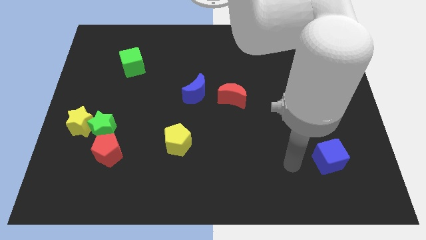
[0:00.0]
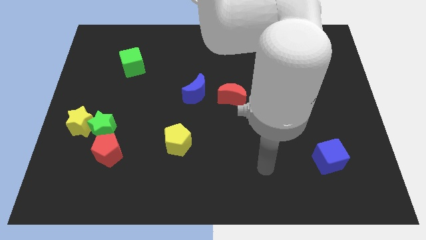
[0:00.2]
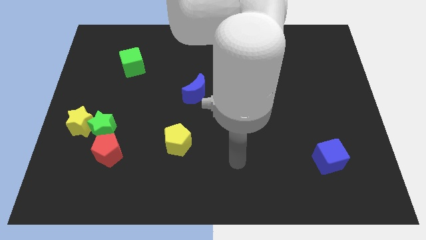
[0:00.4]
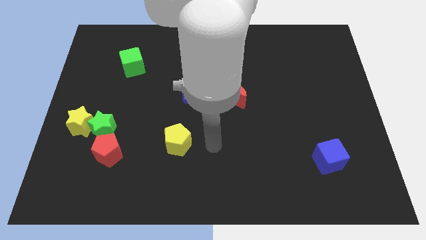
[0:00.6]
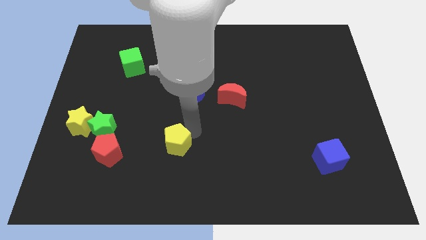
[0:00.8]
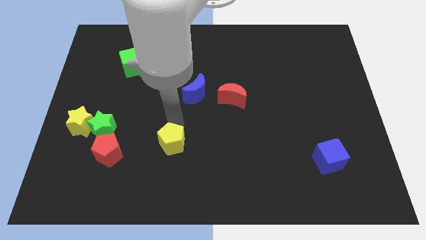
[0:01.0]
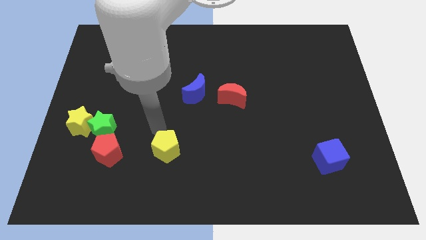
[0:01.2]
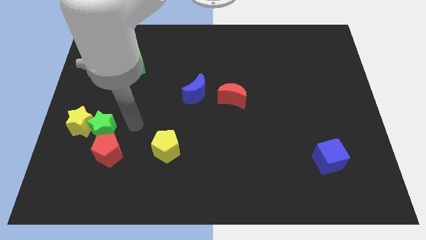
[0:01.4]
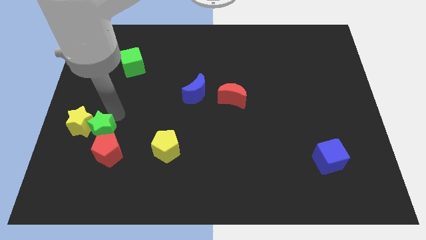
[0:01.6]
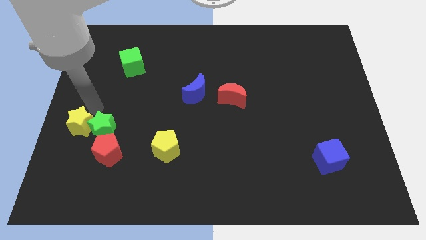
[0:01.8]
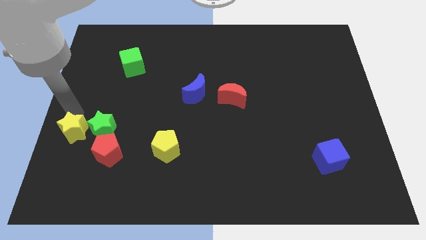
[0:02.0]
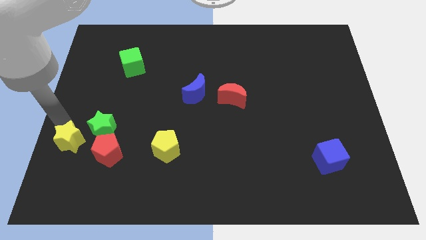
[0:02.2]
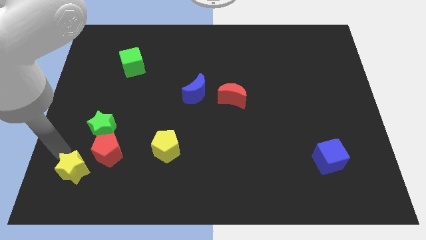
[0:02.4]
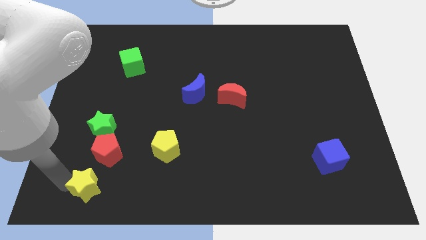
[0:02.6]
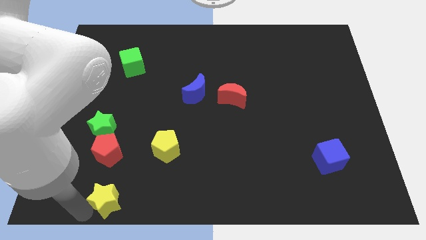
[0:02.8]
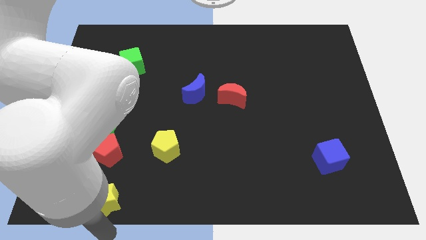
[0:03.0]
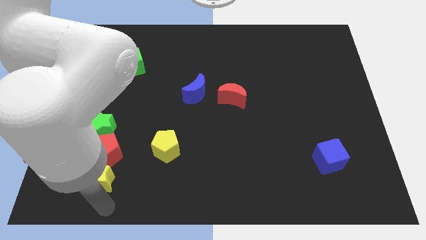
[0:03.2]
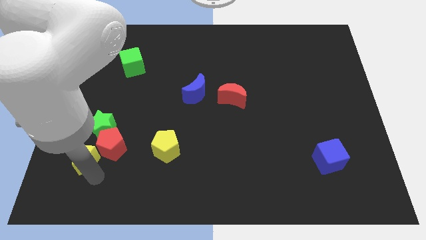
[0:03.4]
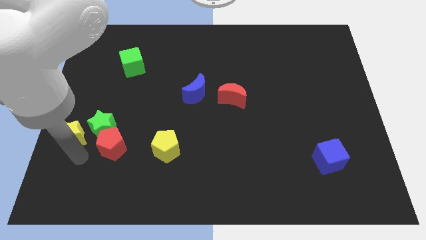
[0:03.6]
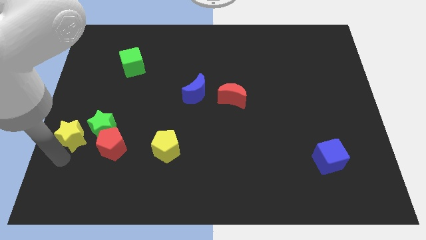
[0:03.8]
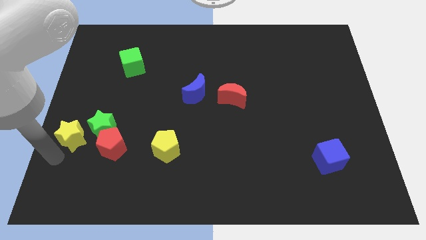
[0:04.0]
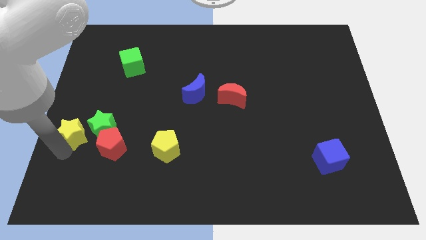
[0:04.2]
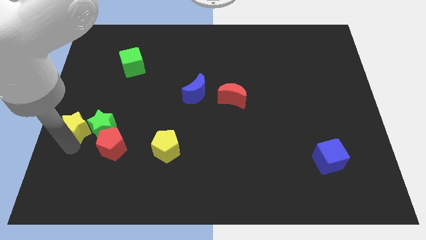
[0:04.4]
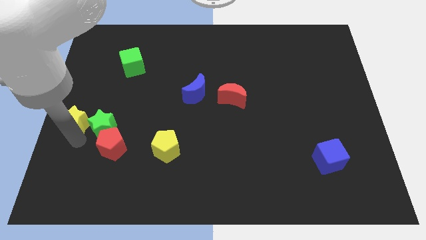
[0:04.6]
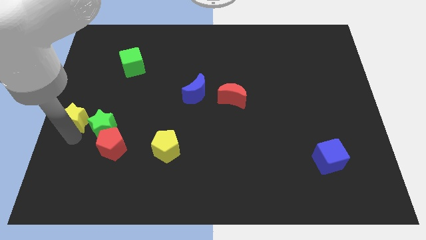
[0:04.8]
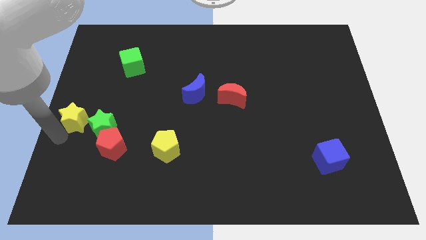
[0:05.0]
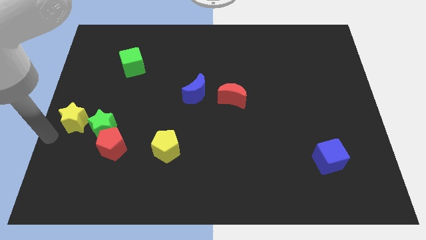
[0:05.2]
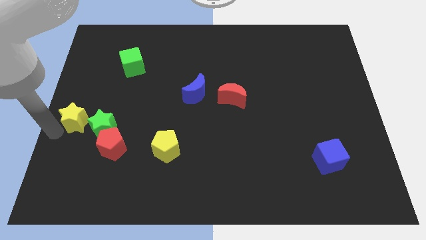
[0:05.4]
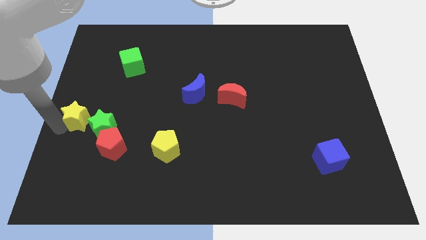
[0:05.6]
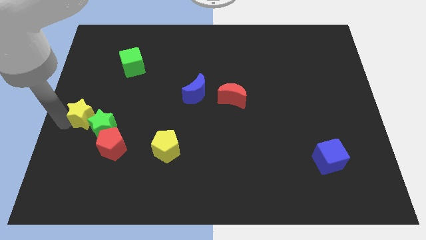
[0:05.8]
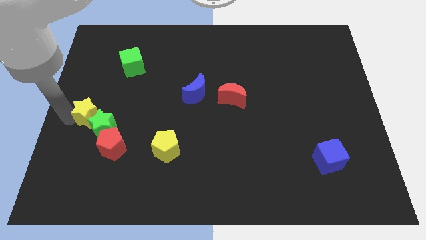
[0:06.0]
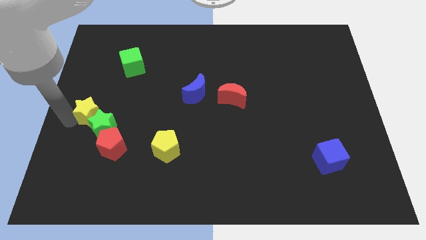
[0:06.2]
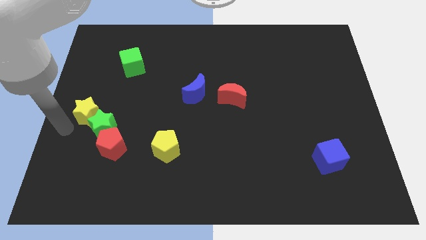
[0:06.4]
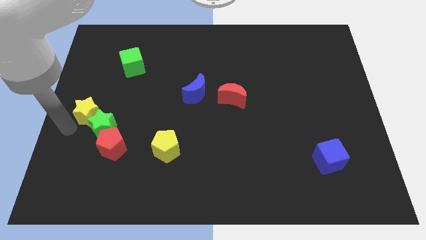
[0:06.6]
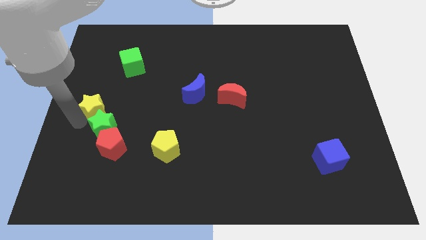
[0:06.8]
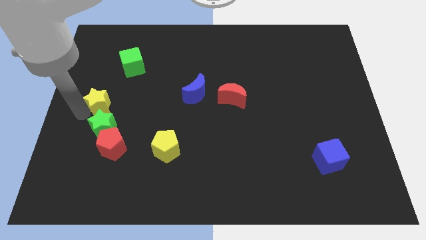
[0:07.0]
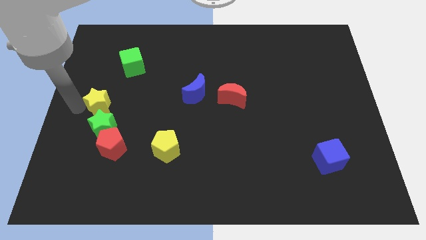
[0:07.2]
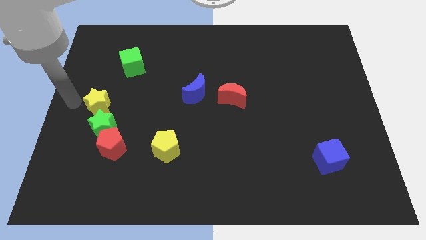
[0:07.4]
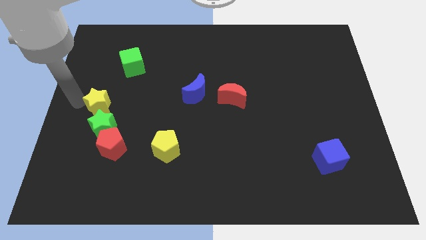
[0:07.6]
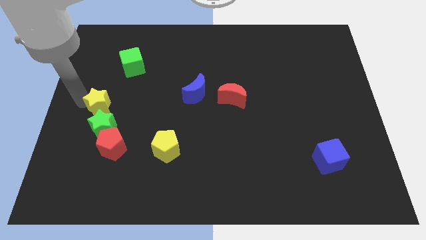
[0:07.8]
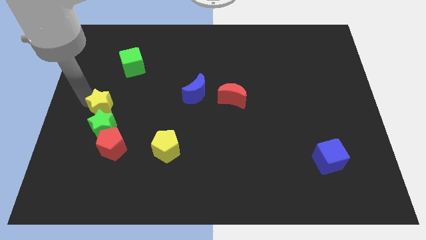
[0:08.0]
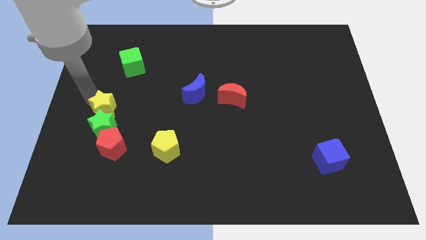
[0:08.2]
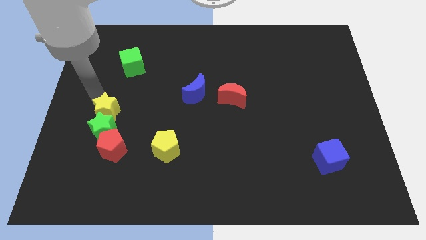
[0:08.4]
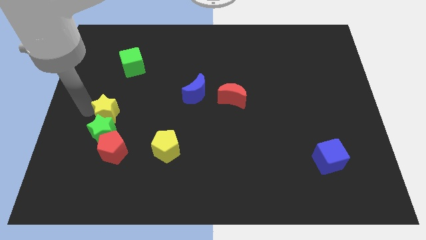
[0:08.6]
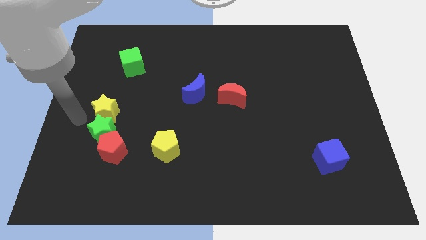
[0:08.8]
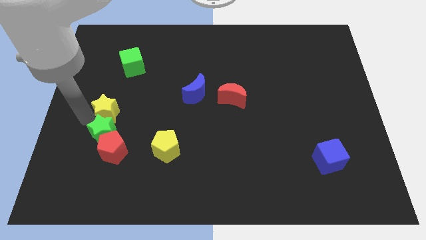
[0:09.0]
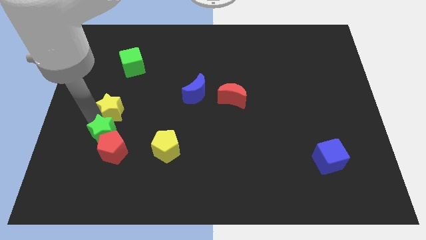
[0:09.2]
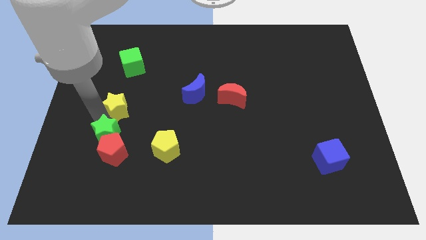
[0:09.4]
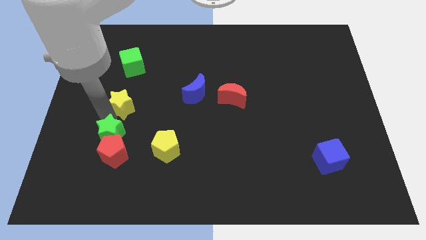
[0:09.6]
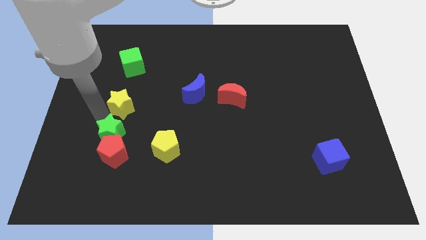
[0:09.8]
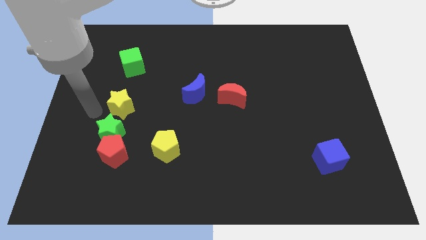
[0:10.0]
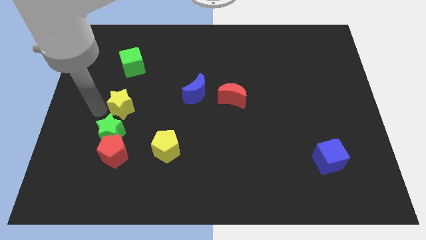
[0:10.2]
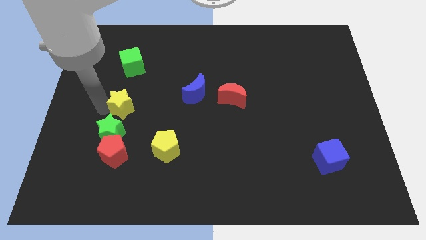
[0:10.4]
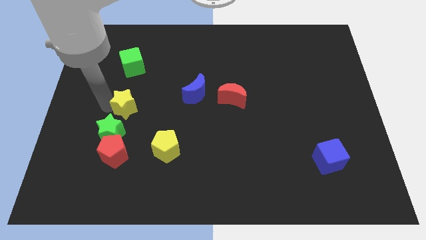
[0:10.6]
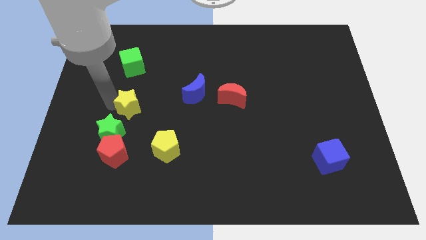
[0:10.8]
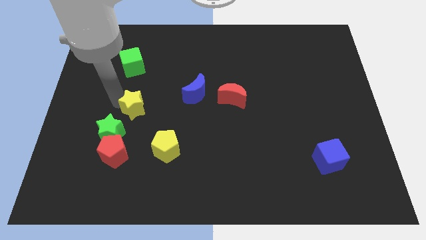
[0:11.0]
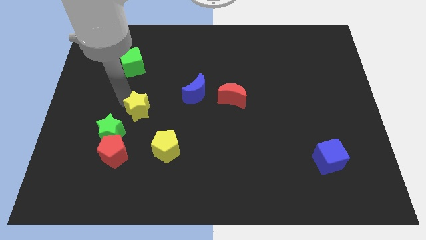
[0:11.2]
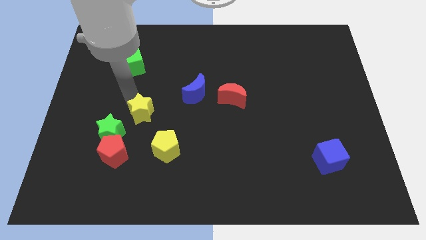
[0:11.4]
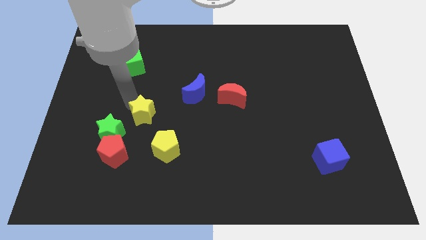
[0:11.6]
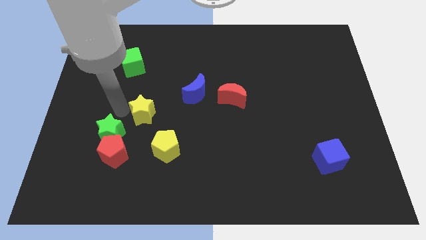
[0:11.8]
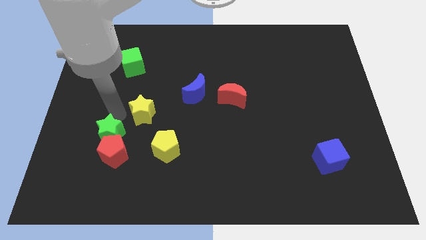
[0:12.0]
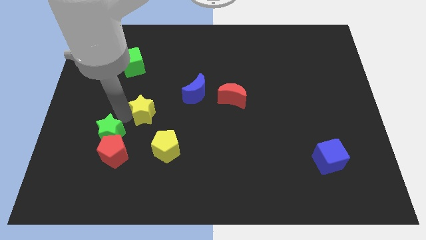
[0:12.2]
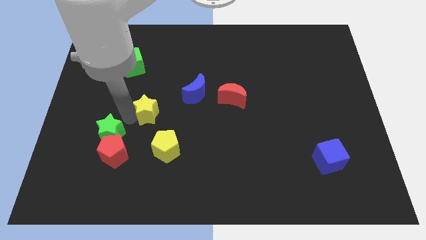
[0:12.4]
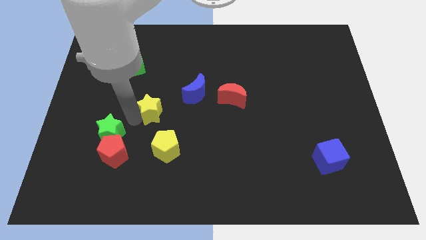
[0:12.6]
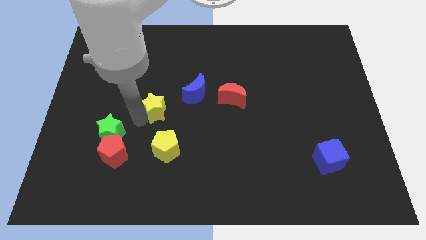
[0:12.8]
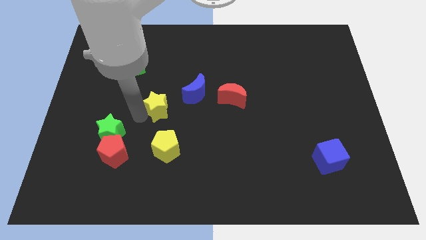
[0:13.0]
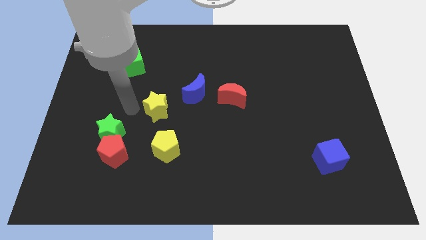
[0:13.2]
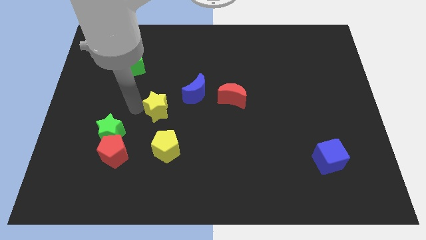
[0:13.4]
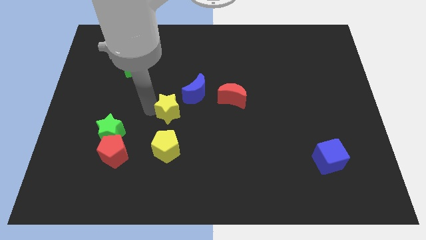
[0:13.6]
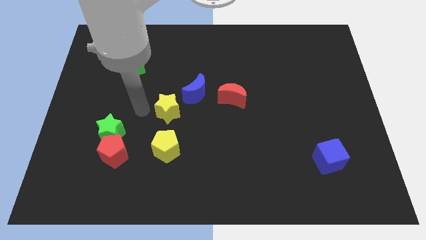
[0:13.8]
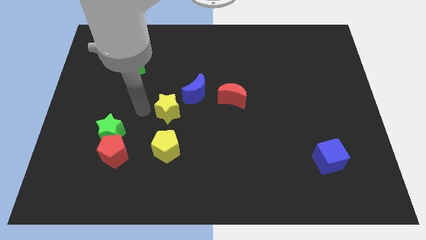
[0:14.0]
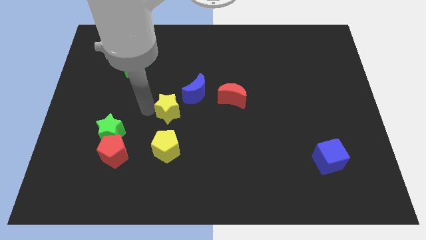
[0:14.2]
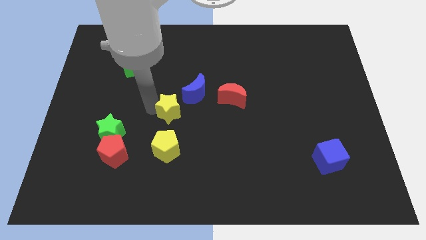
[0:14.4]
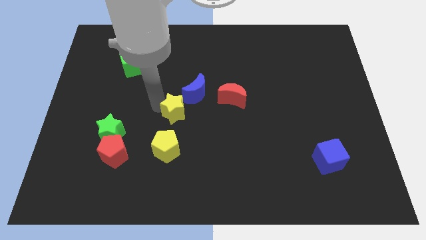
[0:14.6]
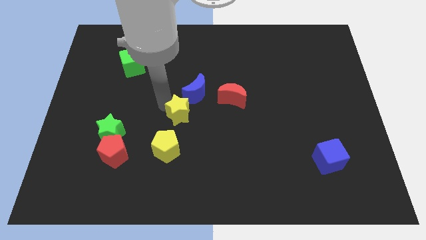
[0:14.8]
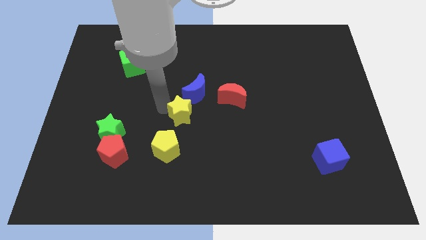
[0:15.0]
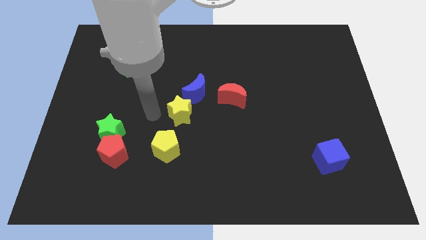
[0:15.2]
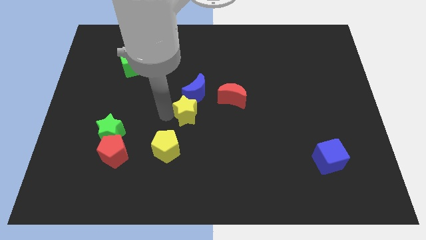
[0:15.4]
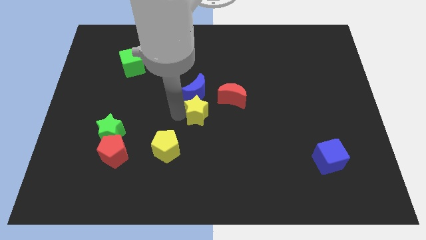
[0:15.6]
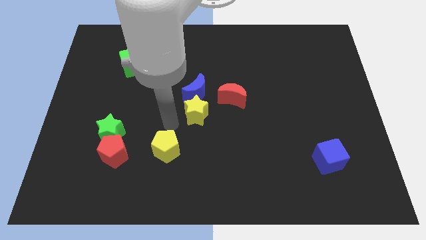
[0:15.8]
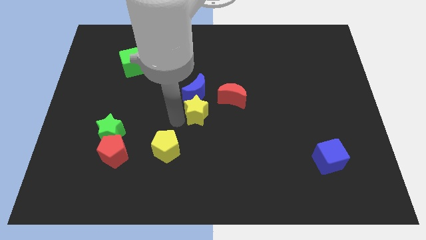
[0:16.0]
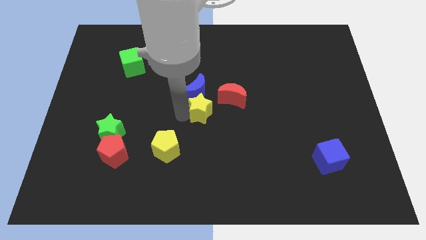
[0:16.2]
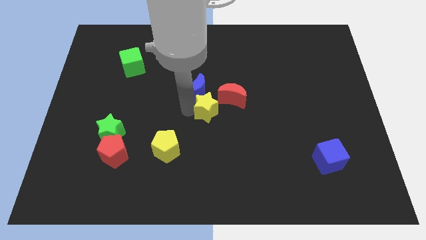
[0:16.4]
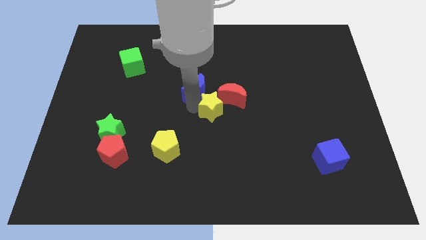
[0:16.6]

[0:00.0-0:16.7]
put the yellow star towards the red moon
